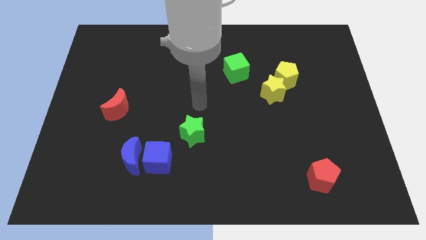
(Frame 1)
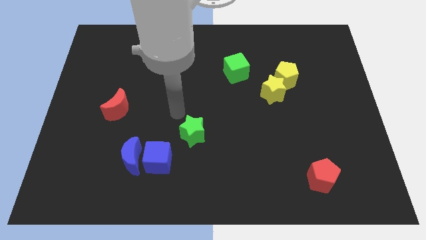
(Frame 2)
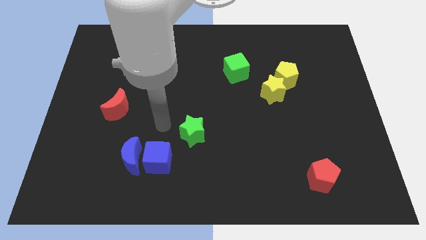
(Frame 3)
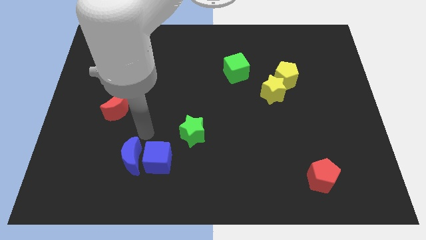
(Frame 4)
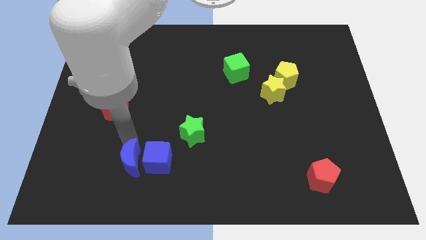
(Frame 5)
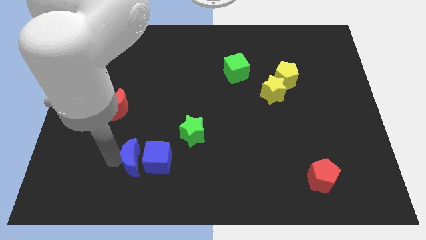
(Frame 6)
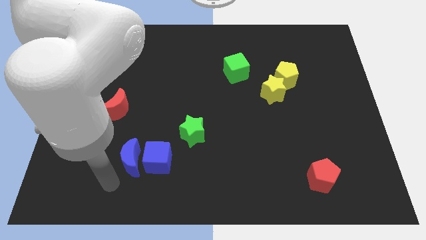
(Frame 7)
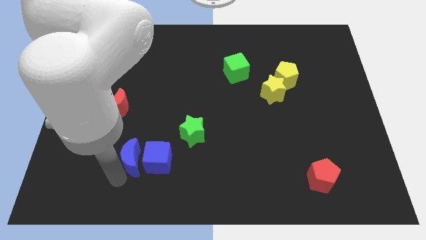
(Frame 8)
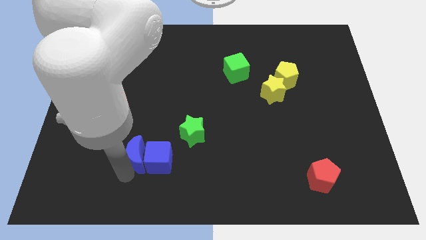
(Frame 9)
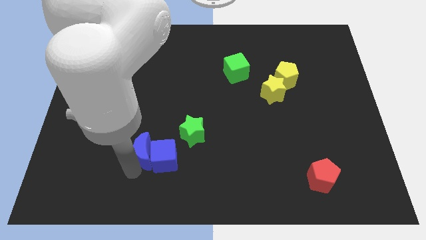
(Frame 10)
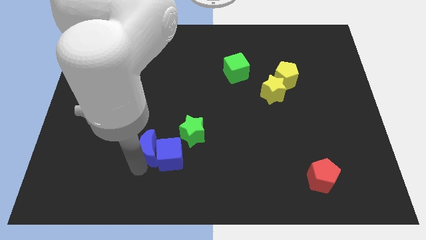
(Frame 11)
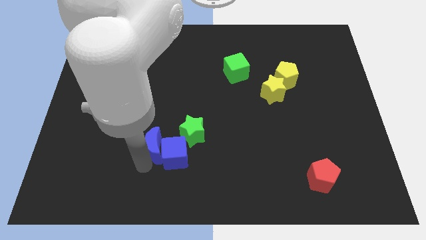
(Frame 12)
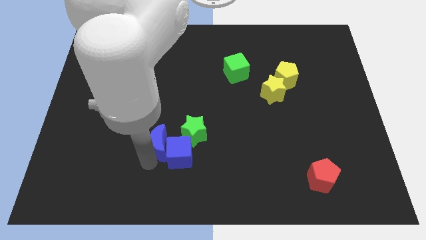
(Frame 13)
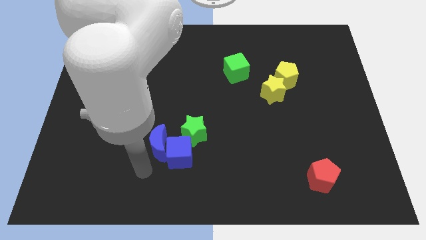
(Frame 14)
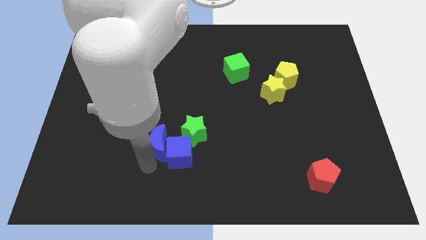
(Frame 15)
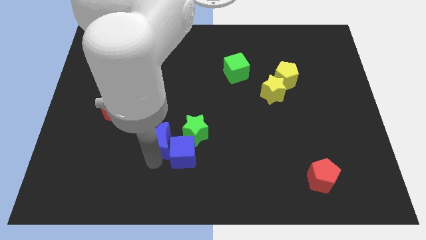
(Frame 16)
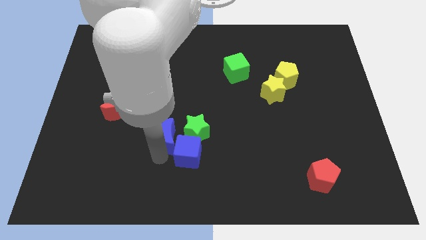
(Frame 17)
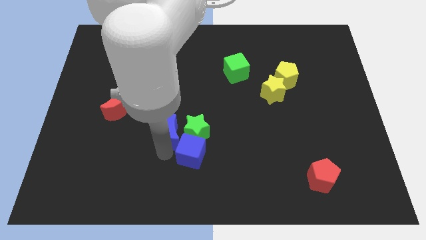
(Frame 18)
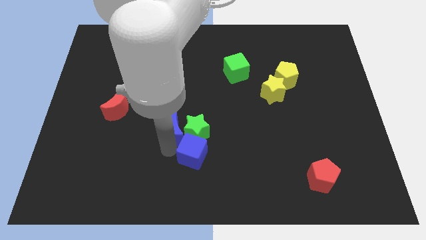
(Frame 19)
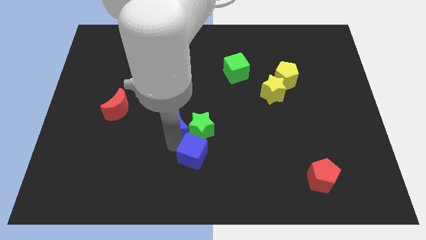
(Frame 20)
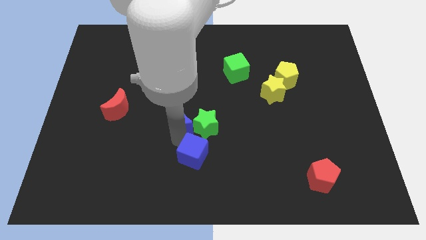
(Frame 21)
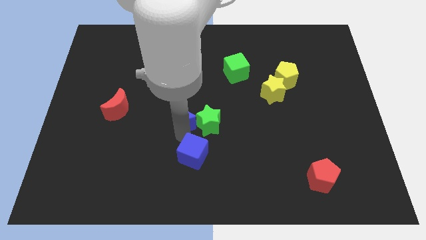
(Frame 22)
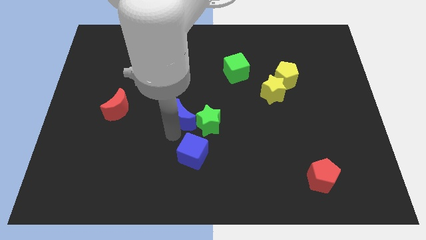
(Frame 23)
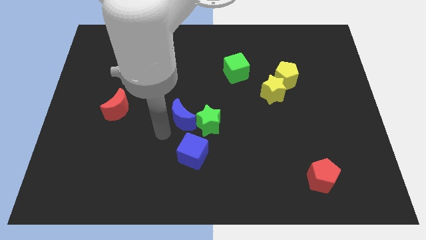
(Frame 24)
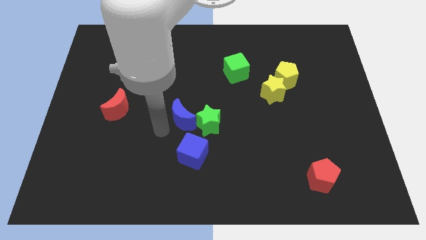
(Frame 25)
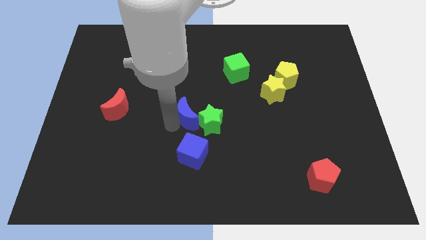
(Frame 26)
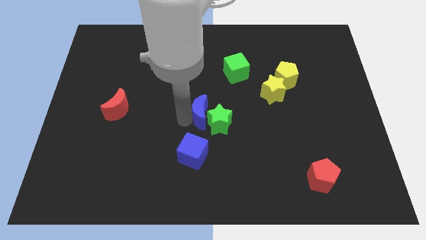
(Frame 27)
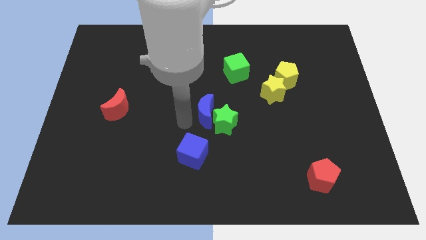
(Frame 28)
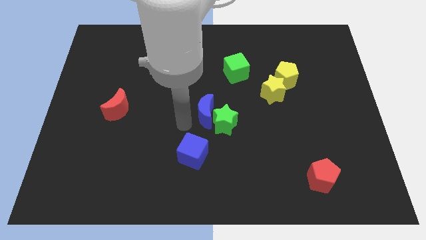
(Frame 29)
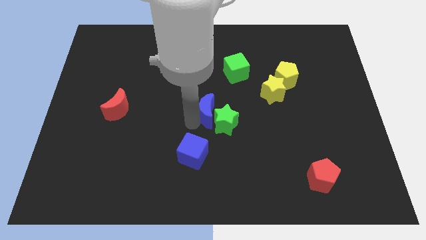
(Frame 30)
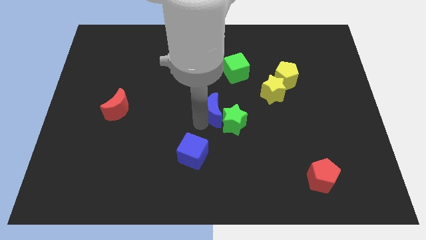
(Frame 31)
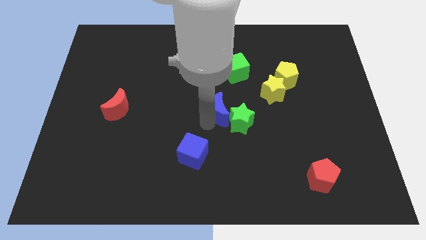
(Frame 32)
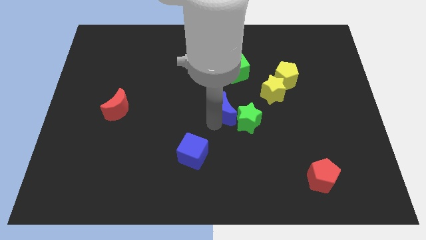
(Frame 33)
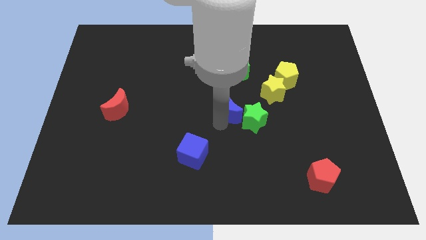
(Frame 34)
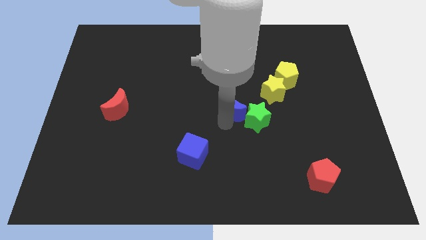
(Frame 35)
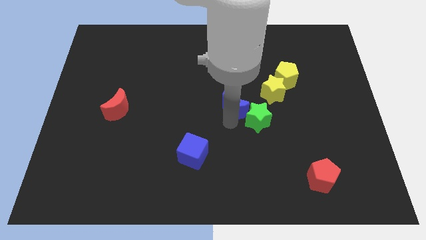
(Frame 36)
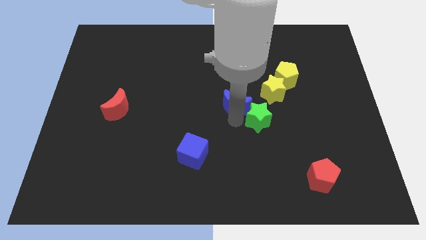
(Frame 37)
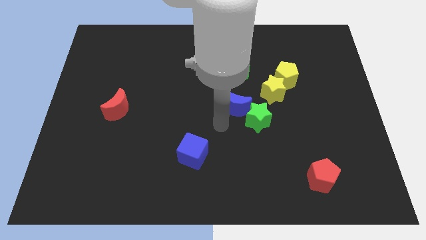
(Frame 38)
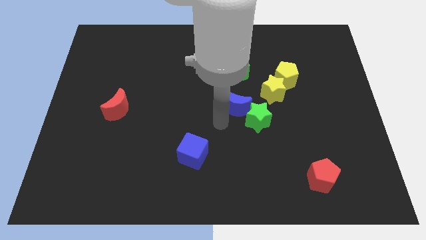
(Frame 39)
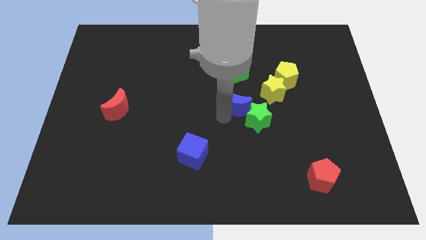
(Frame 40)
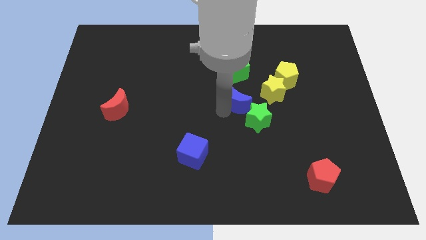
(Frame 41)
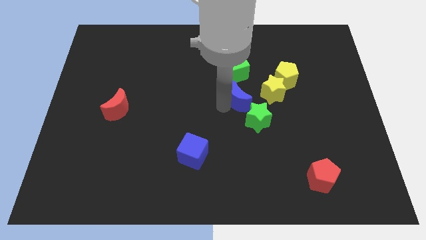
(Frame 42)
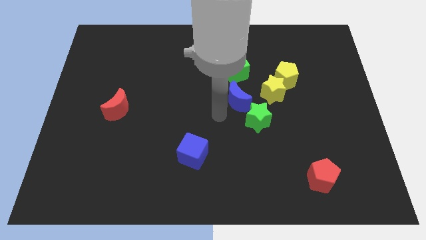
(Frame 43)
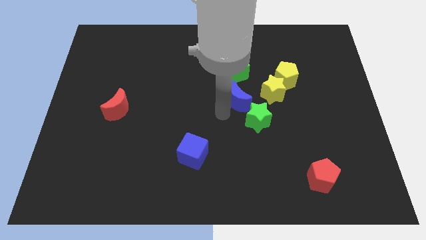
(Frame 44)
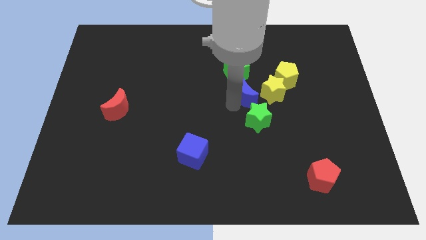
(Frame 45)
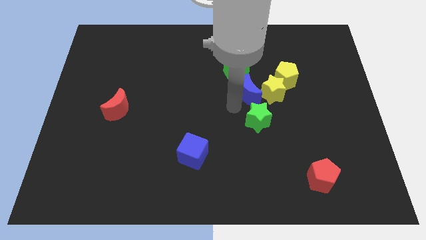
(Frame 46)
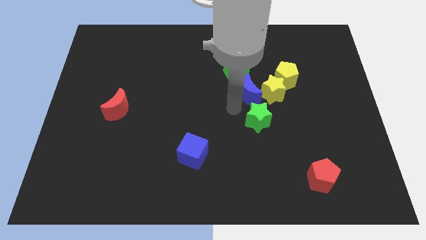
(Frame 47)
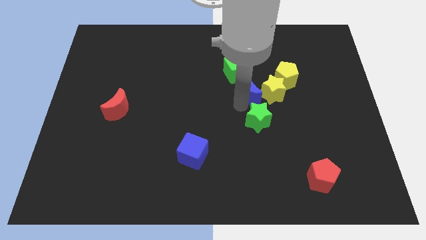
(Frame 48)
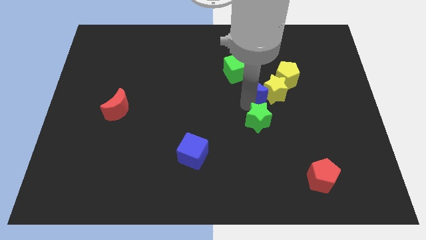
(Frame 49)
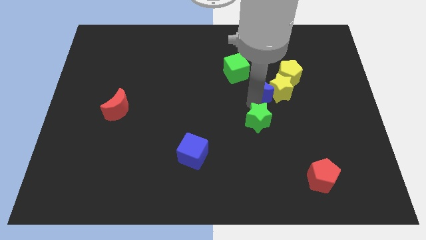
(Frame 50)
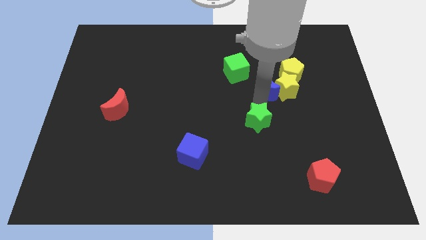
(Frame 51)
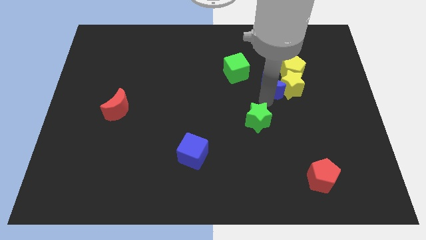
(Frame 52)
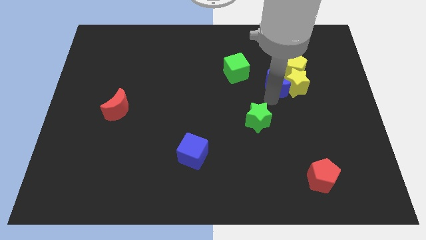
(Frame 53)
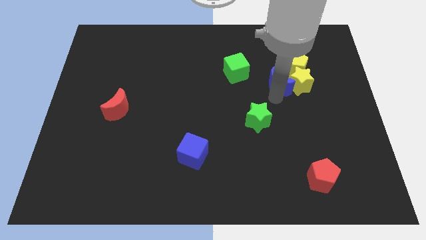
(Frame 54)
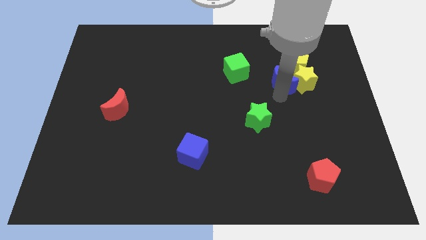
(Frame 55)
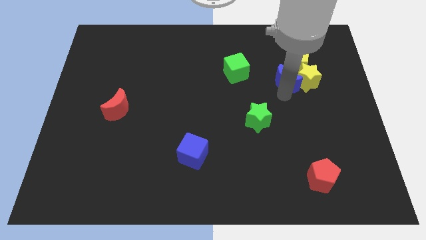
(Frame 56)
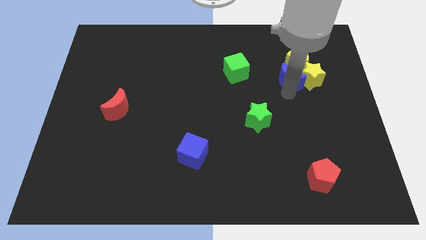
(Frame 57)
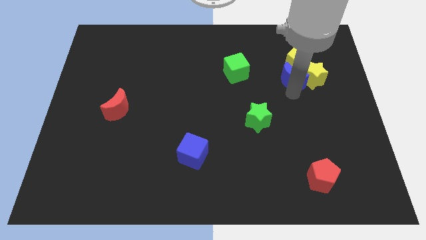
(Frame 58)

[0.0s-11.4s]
slide the blue moon close to the yellow pentagon

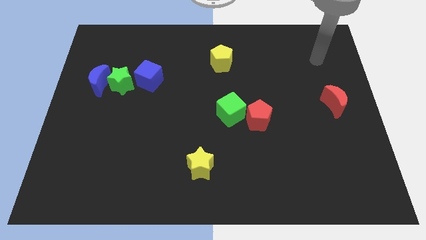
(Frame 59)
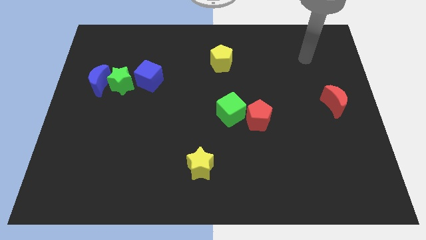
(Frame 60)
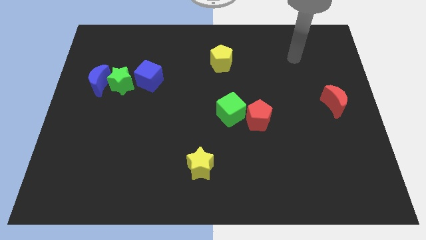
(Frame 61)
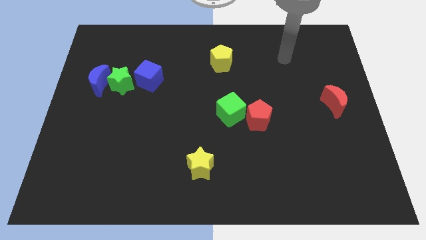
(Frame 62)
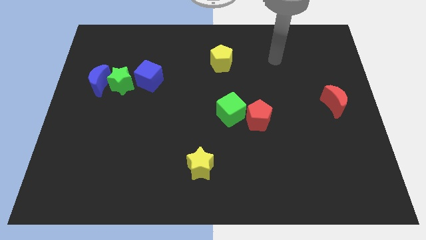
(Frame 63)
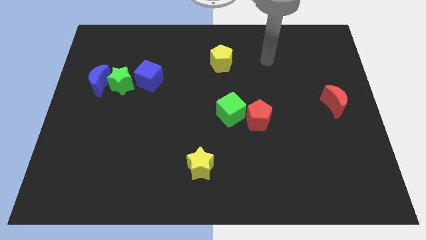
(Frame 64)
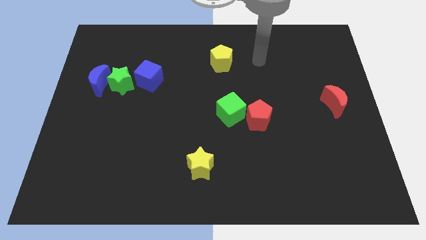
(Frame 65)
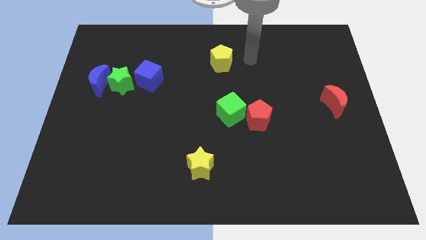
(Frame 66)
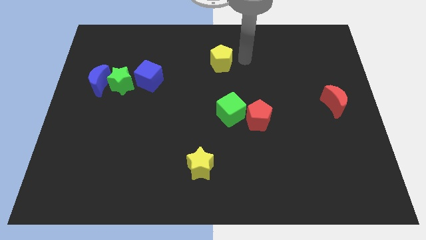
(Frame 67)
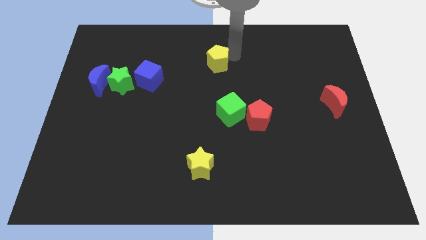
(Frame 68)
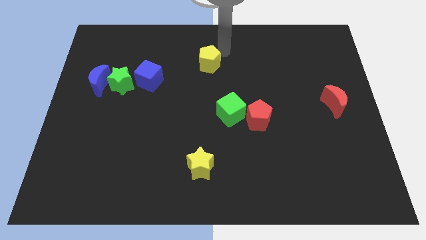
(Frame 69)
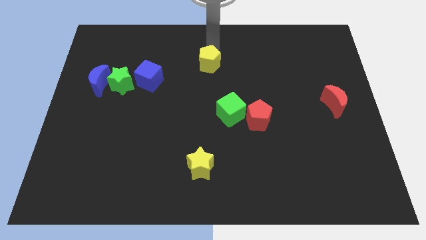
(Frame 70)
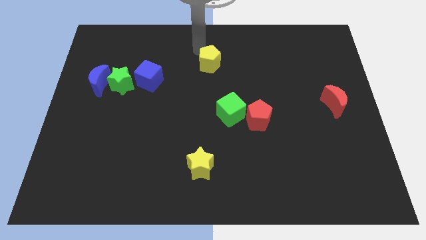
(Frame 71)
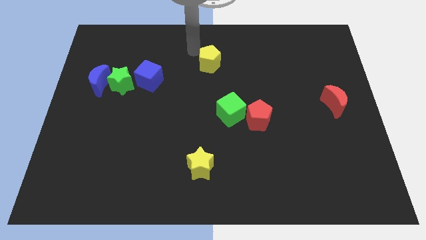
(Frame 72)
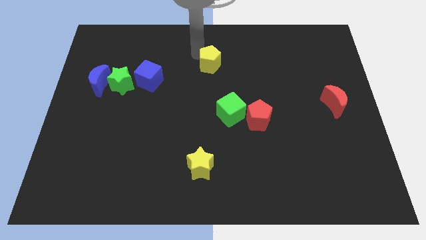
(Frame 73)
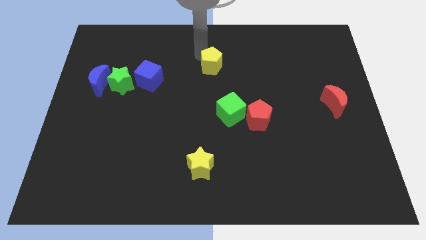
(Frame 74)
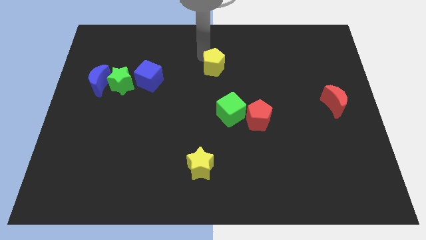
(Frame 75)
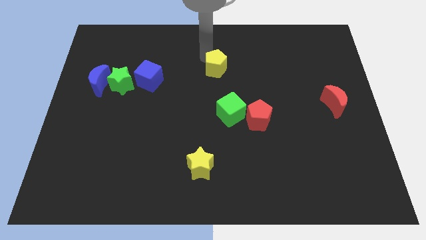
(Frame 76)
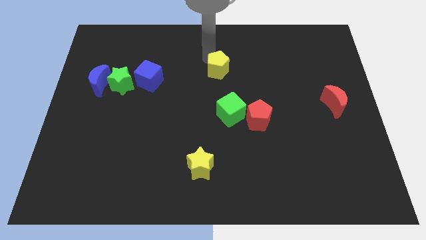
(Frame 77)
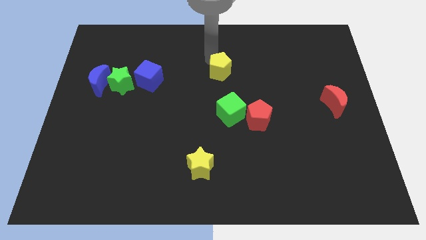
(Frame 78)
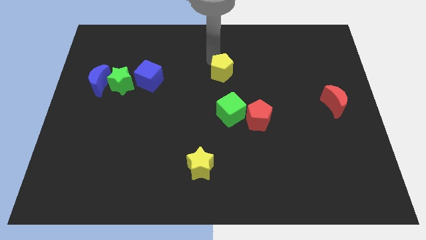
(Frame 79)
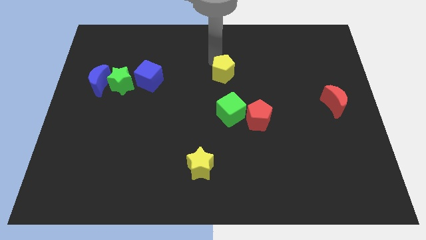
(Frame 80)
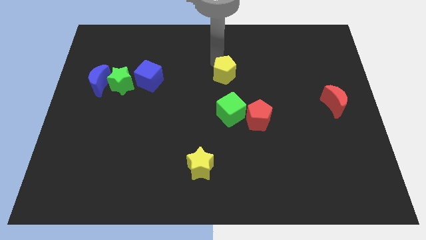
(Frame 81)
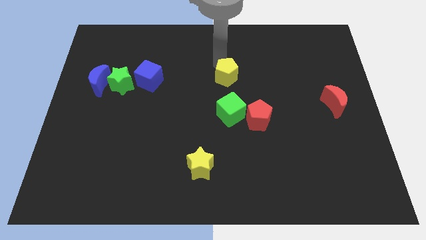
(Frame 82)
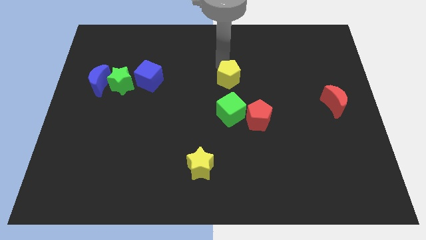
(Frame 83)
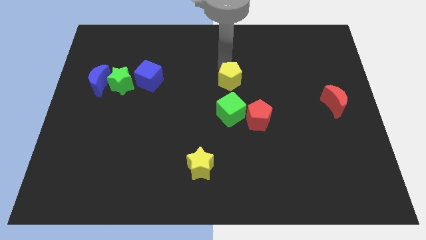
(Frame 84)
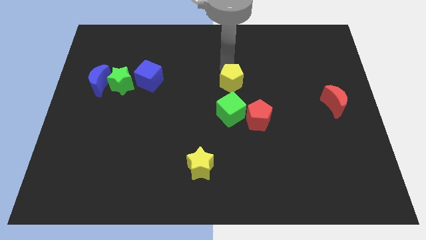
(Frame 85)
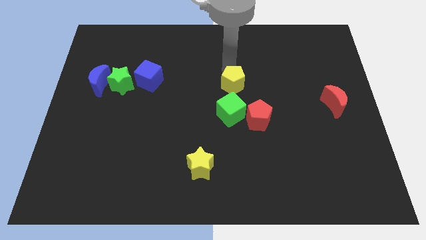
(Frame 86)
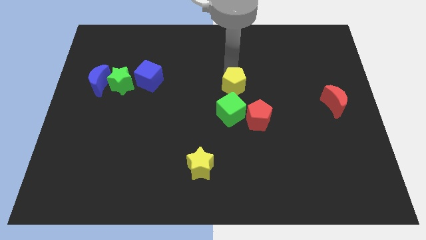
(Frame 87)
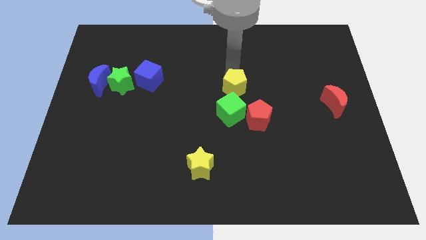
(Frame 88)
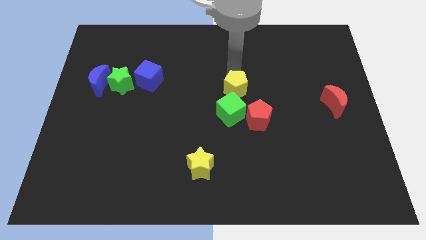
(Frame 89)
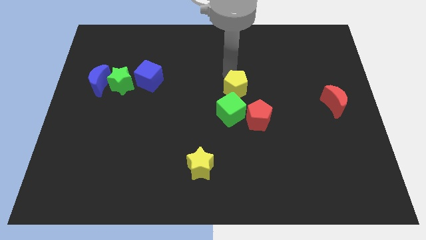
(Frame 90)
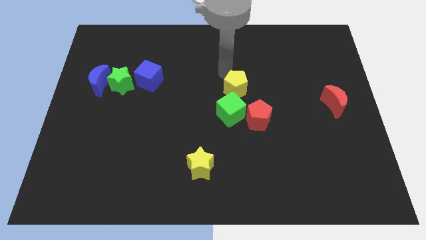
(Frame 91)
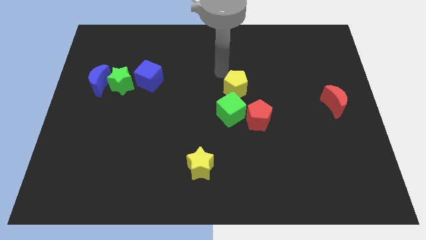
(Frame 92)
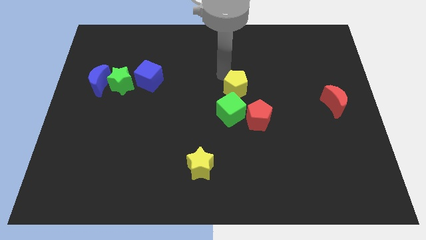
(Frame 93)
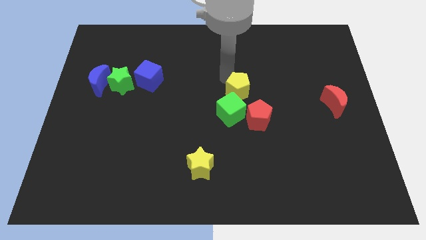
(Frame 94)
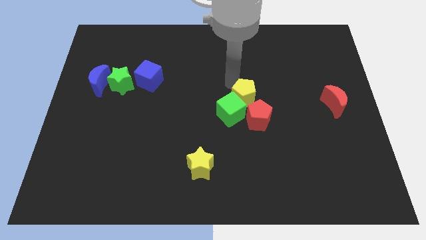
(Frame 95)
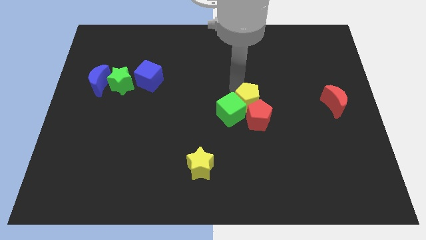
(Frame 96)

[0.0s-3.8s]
move the yellow pentagon to the red pentagon
